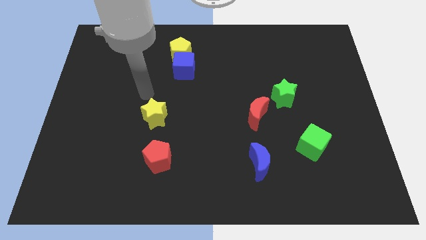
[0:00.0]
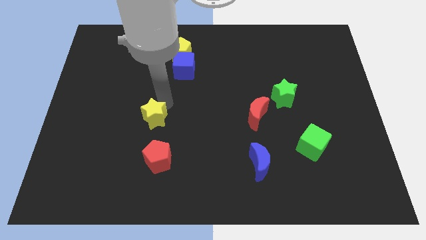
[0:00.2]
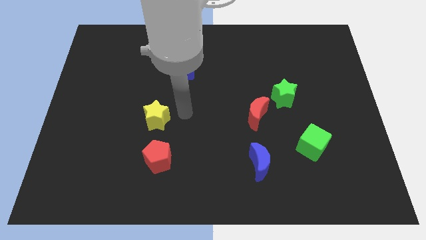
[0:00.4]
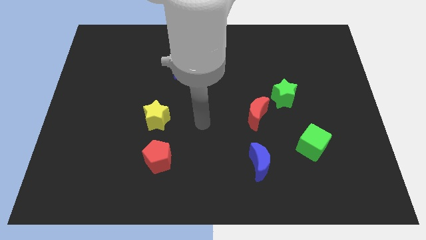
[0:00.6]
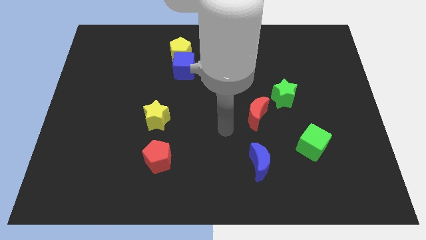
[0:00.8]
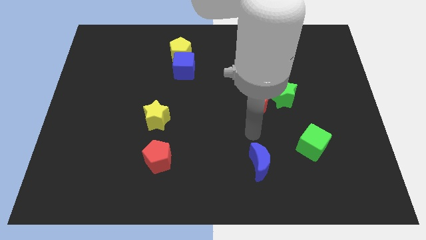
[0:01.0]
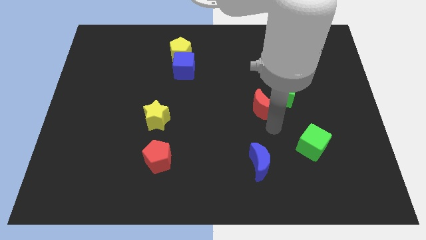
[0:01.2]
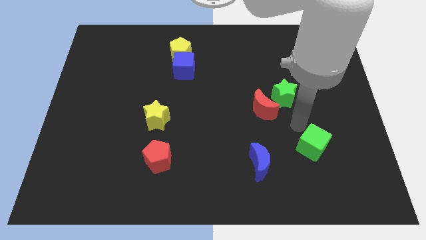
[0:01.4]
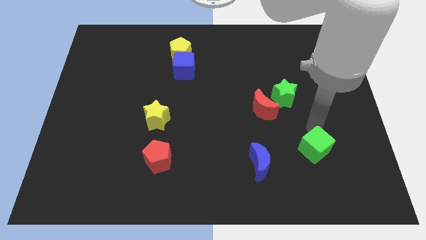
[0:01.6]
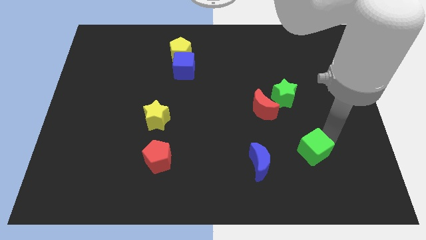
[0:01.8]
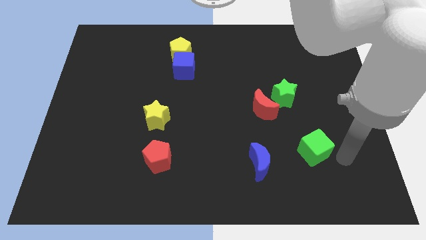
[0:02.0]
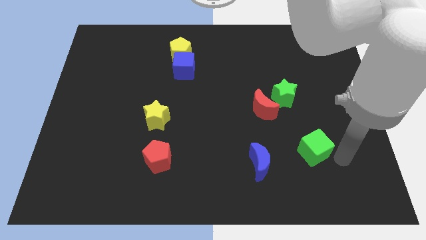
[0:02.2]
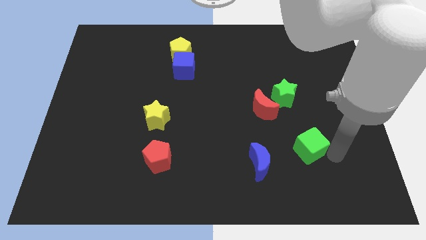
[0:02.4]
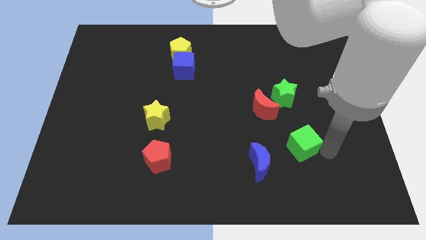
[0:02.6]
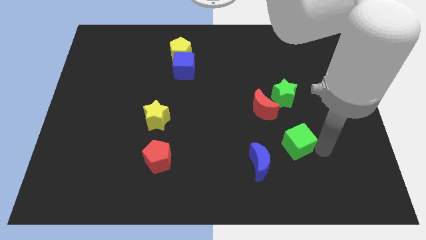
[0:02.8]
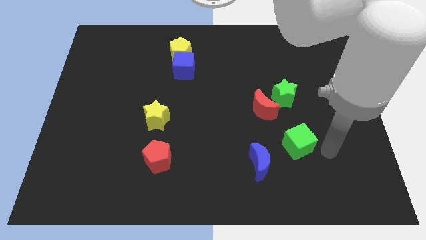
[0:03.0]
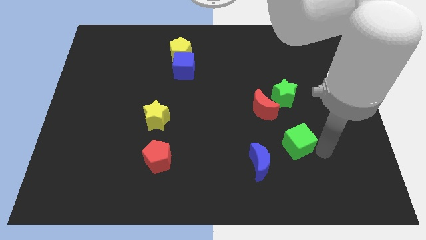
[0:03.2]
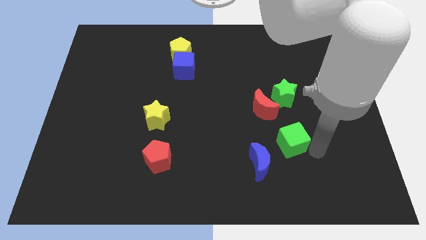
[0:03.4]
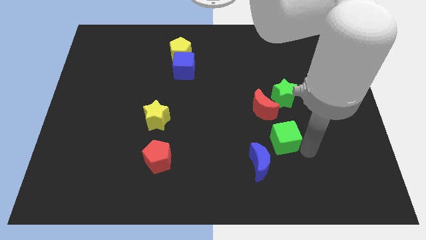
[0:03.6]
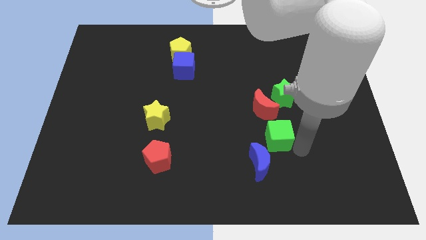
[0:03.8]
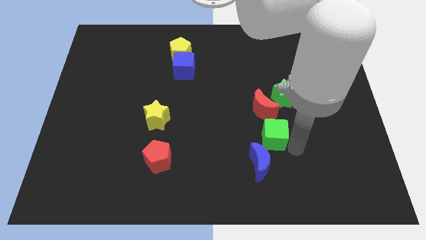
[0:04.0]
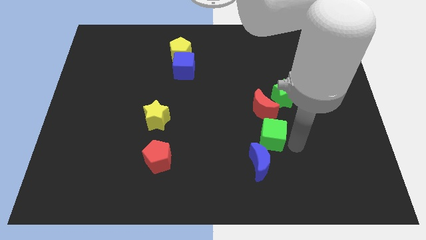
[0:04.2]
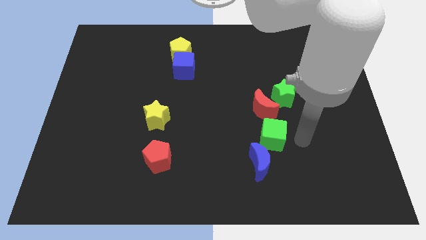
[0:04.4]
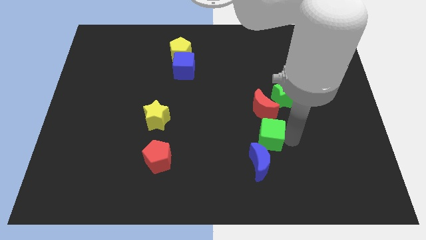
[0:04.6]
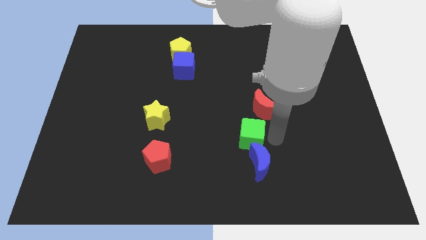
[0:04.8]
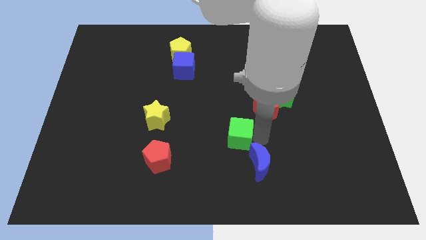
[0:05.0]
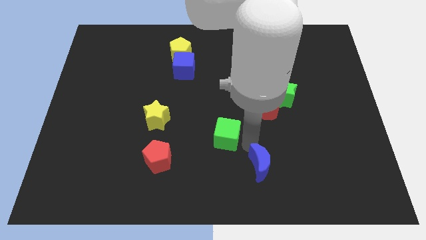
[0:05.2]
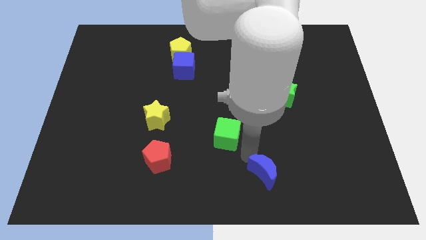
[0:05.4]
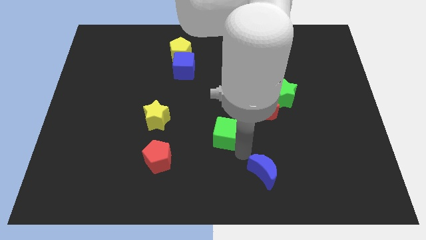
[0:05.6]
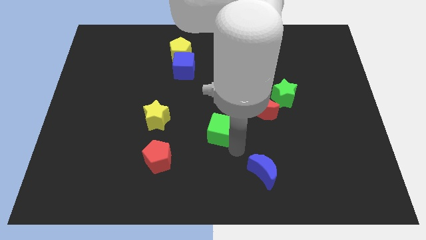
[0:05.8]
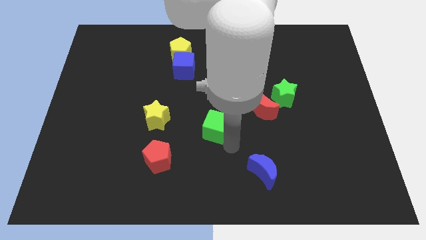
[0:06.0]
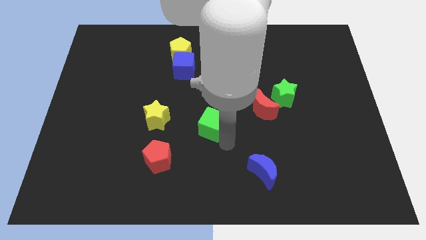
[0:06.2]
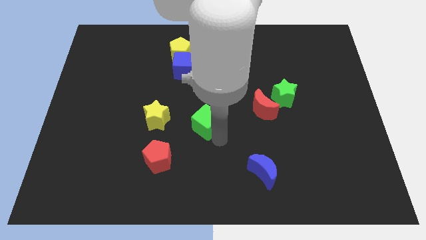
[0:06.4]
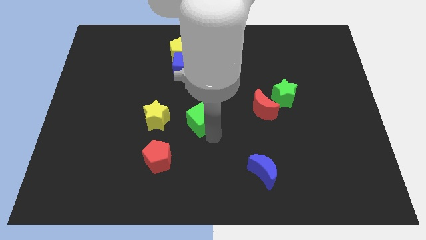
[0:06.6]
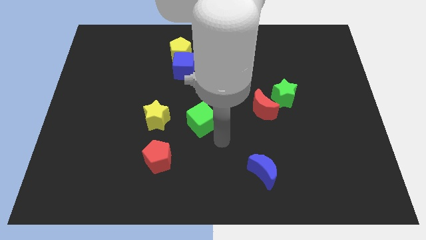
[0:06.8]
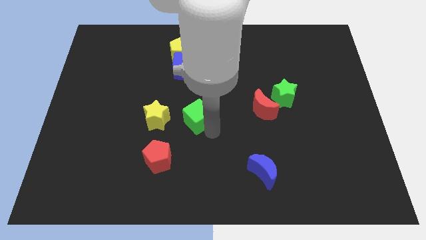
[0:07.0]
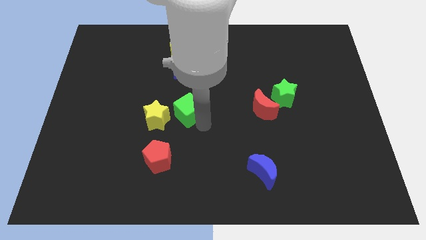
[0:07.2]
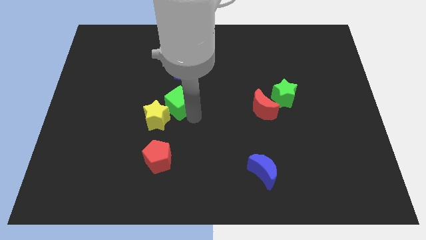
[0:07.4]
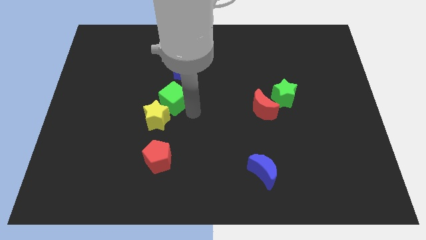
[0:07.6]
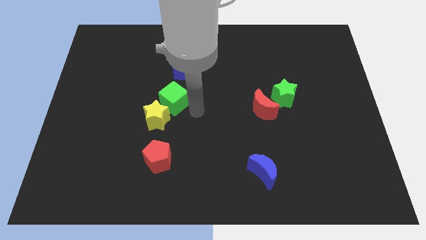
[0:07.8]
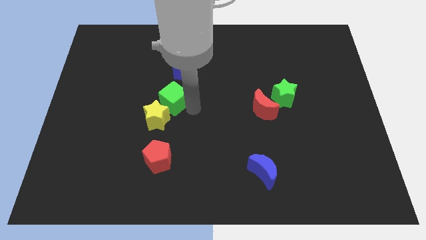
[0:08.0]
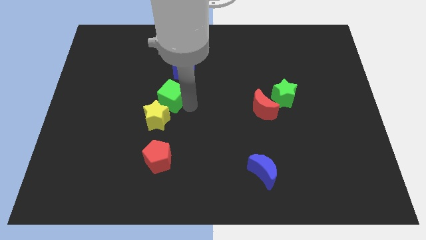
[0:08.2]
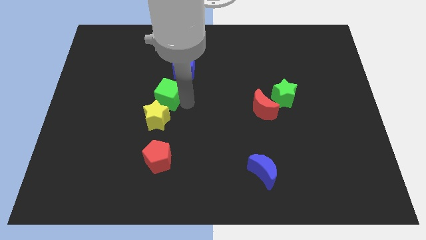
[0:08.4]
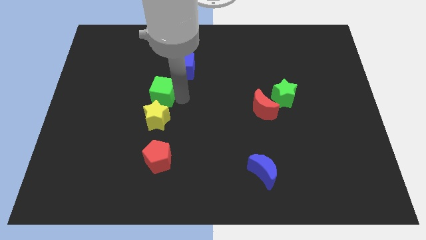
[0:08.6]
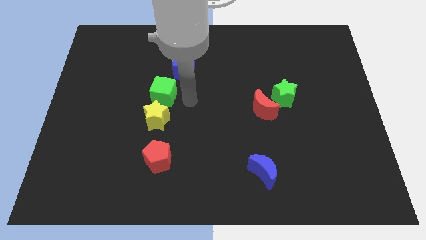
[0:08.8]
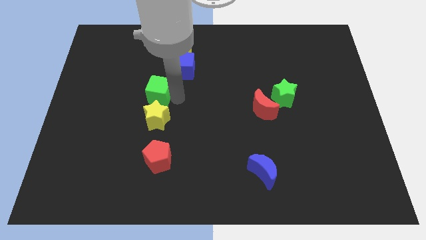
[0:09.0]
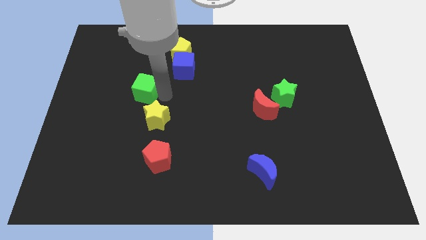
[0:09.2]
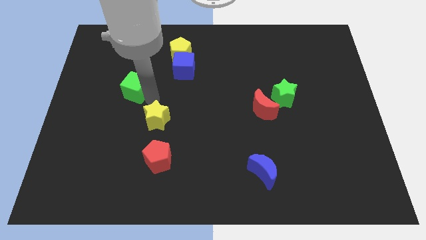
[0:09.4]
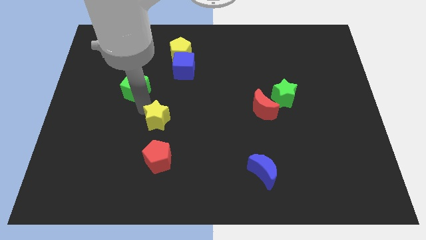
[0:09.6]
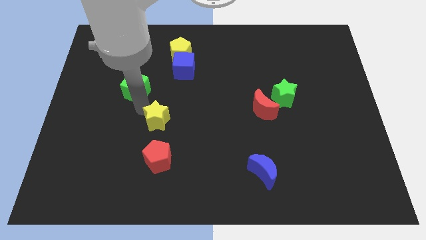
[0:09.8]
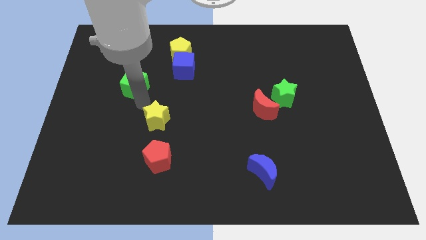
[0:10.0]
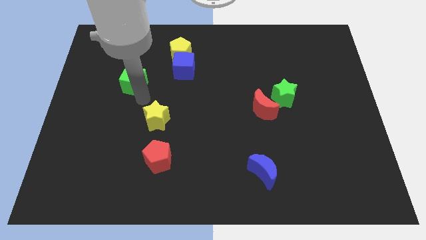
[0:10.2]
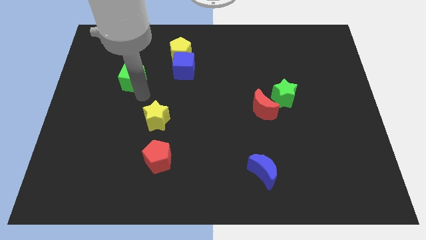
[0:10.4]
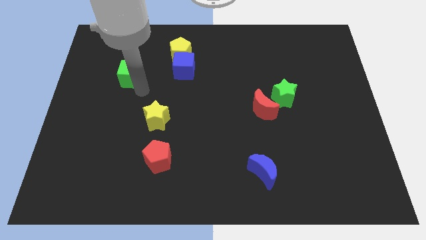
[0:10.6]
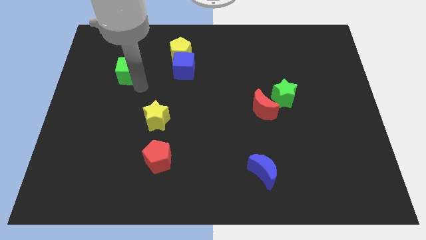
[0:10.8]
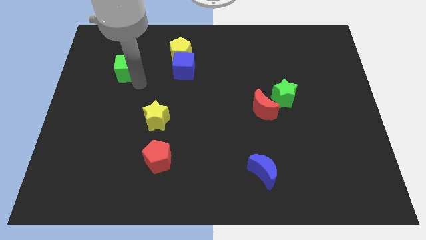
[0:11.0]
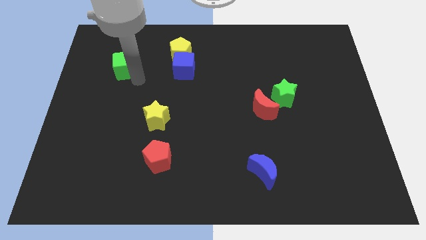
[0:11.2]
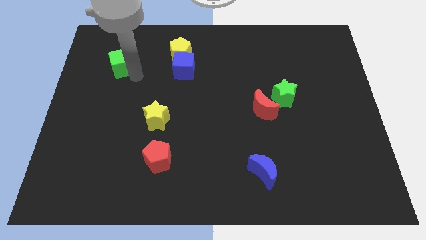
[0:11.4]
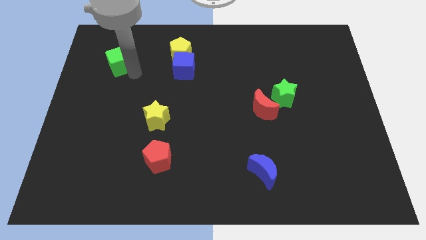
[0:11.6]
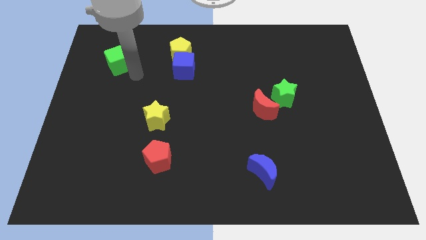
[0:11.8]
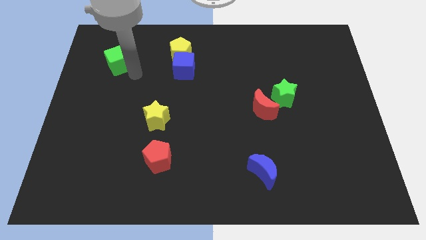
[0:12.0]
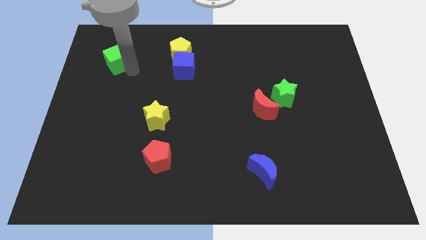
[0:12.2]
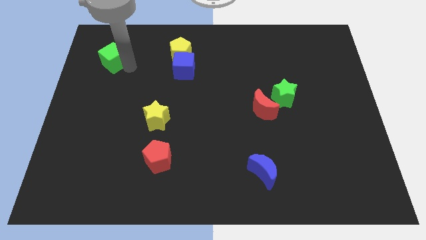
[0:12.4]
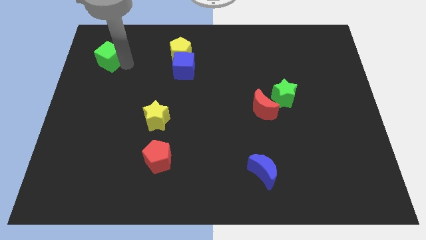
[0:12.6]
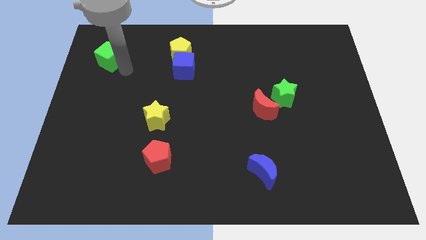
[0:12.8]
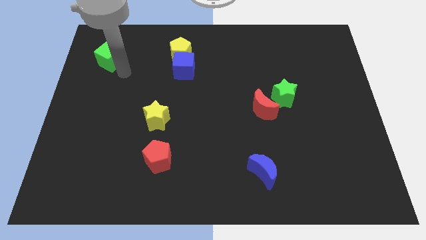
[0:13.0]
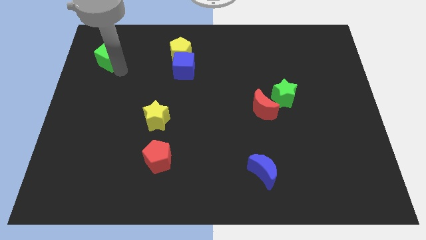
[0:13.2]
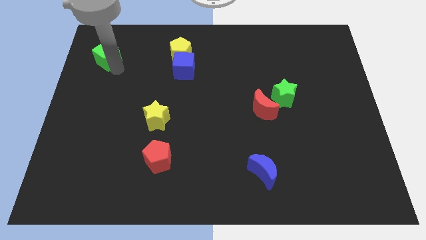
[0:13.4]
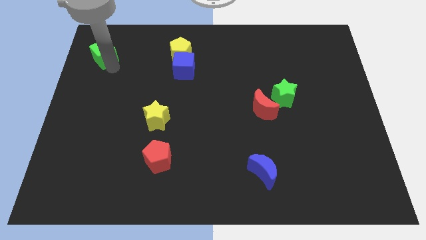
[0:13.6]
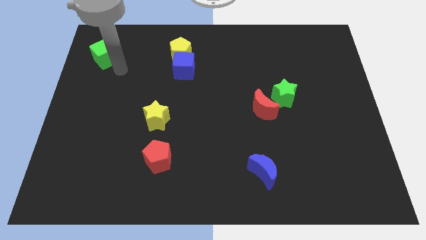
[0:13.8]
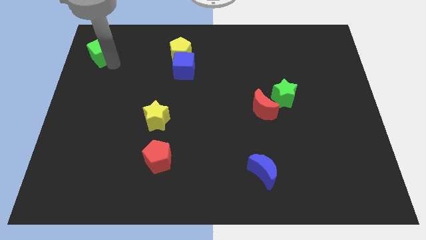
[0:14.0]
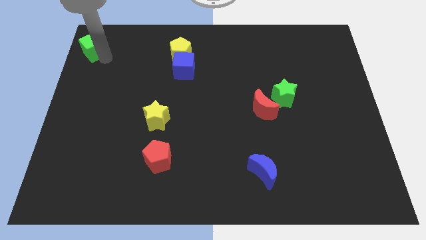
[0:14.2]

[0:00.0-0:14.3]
put the green cube to the top left corner

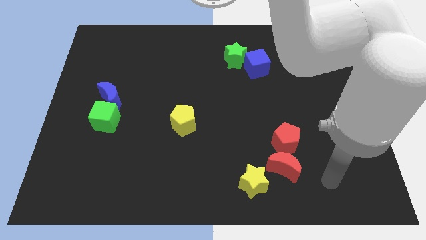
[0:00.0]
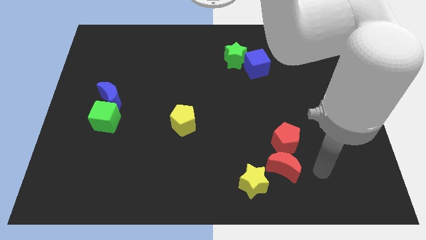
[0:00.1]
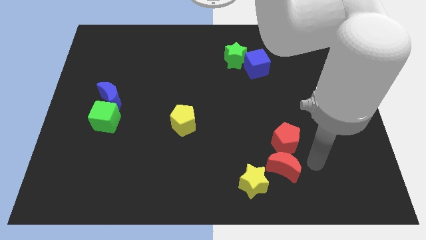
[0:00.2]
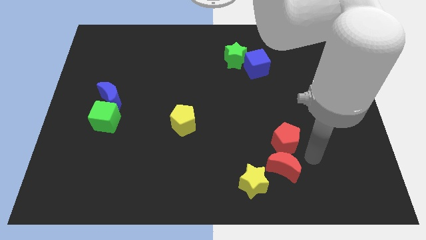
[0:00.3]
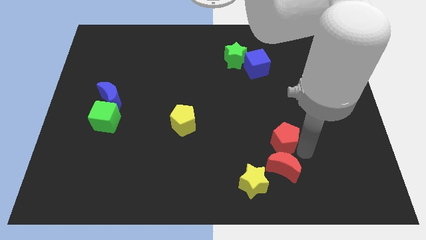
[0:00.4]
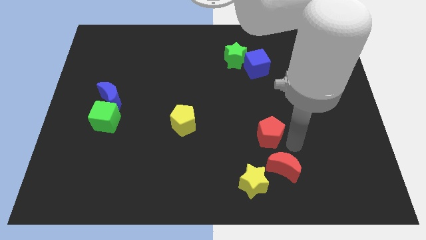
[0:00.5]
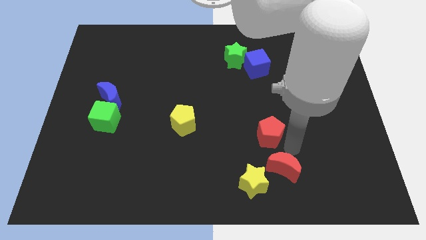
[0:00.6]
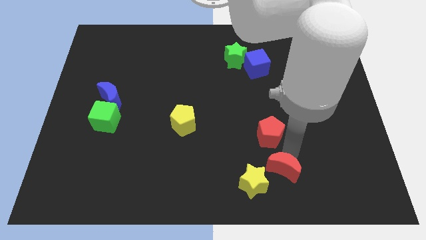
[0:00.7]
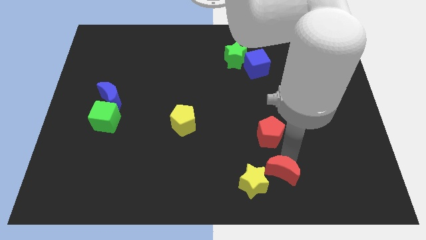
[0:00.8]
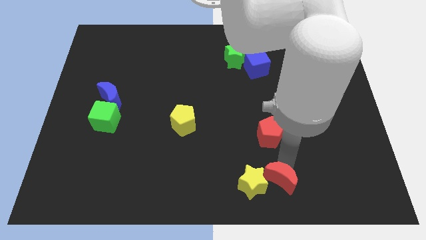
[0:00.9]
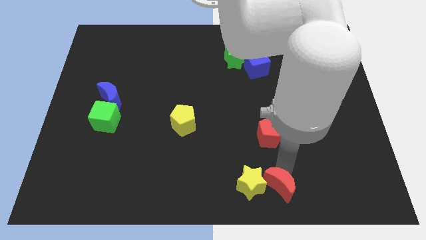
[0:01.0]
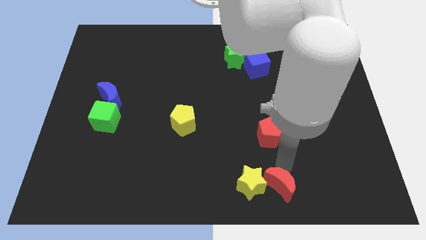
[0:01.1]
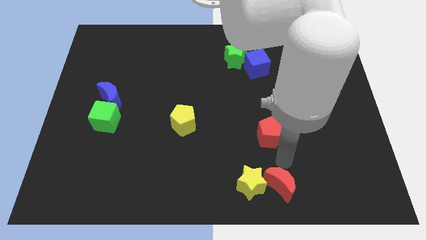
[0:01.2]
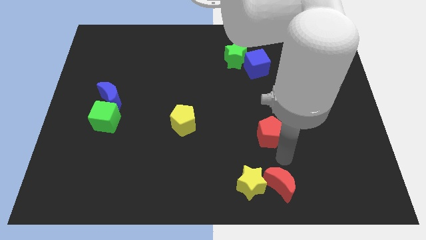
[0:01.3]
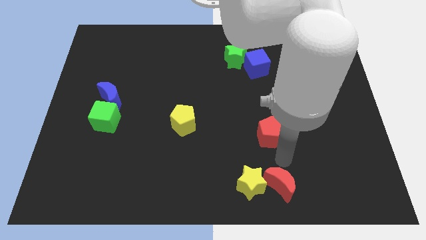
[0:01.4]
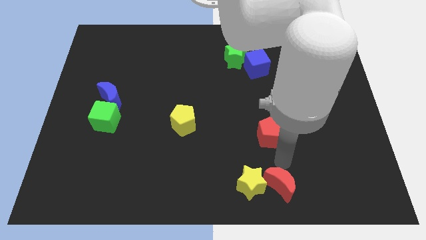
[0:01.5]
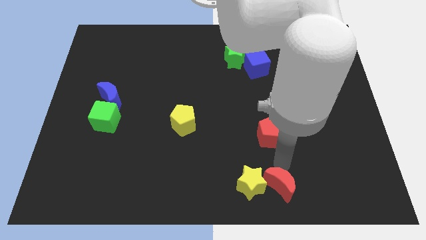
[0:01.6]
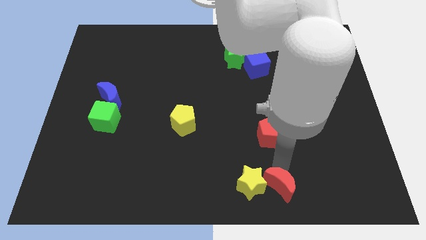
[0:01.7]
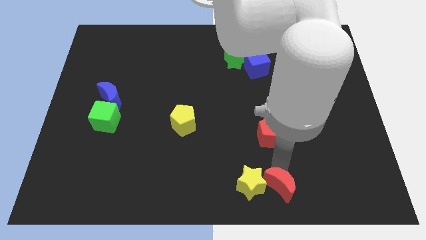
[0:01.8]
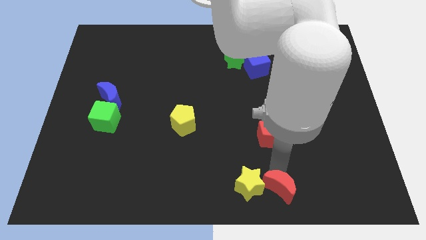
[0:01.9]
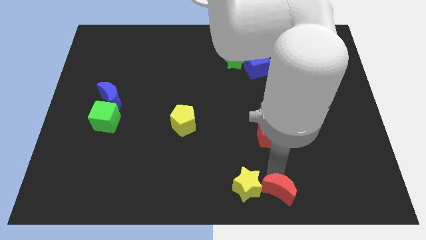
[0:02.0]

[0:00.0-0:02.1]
slide the red moon to the bottom
